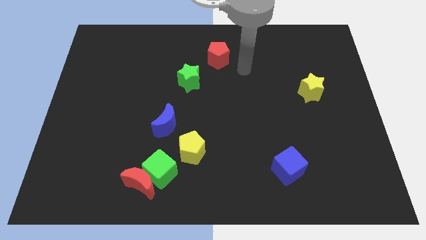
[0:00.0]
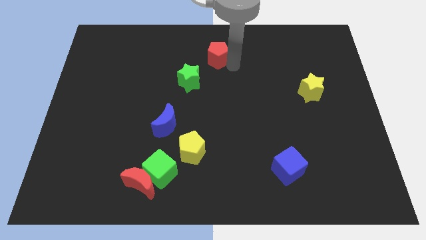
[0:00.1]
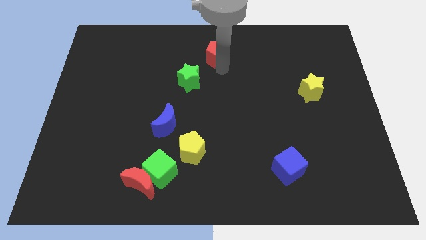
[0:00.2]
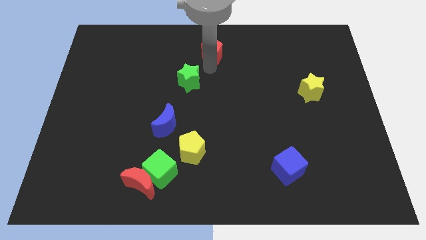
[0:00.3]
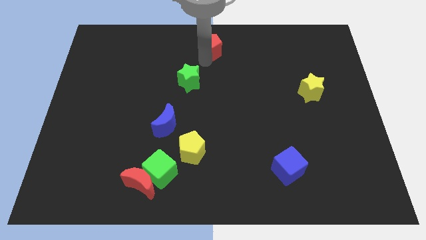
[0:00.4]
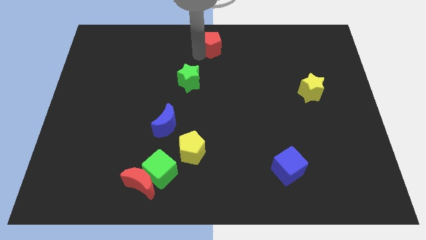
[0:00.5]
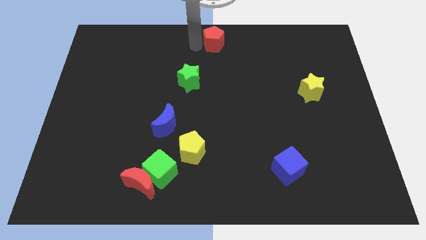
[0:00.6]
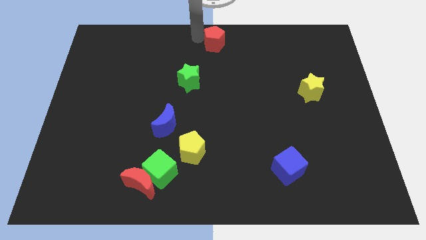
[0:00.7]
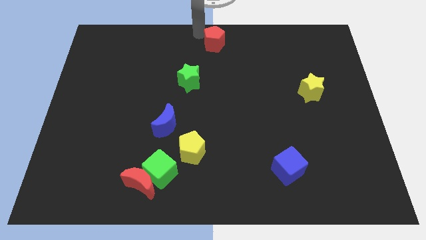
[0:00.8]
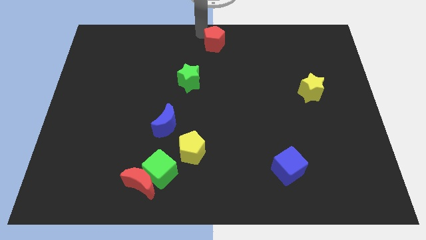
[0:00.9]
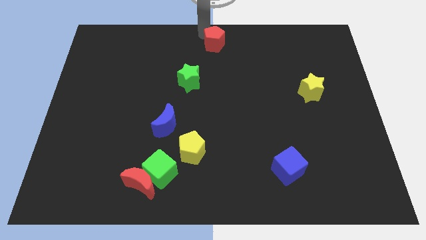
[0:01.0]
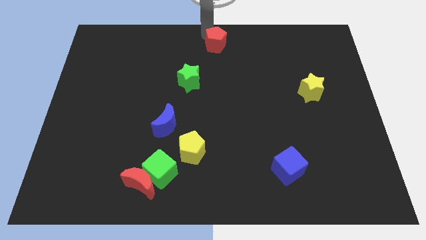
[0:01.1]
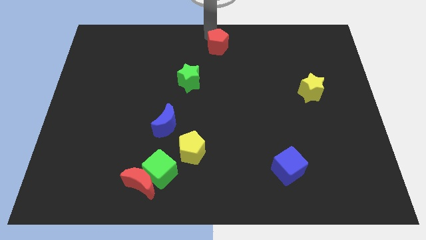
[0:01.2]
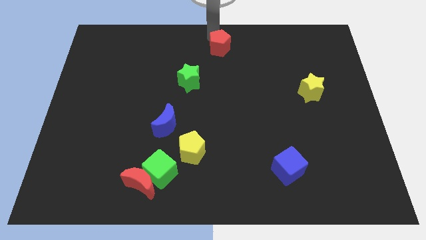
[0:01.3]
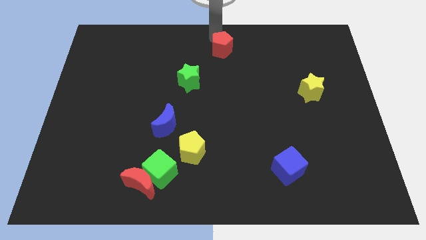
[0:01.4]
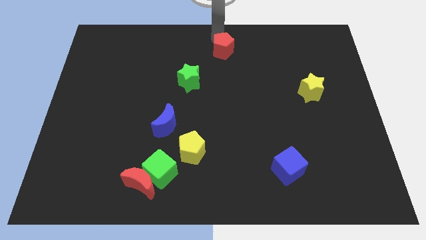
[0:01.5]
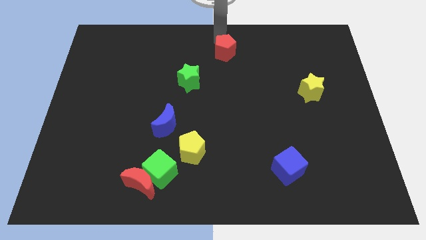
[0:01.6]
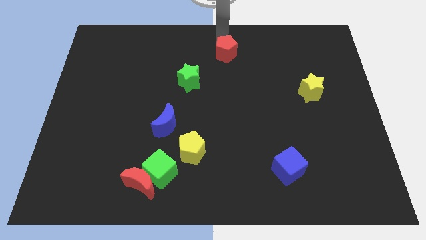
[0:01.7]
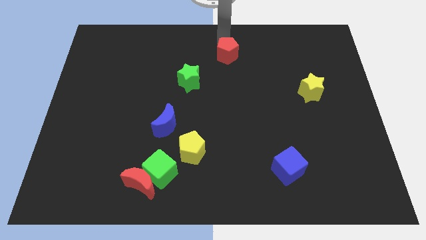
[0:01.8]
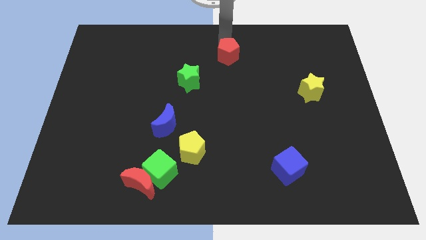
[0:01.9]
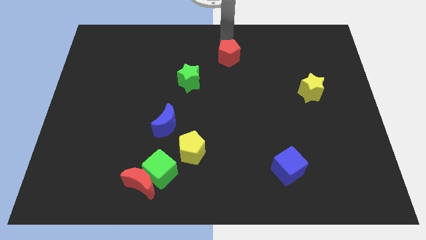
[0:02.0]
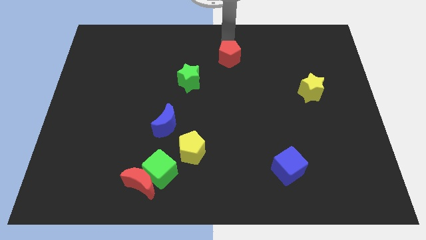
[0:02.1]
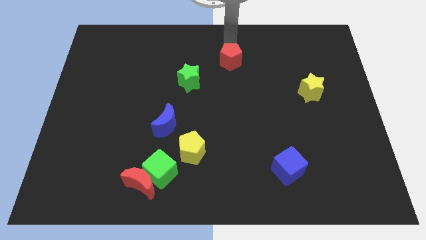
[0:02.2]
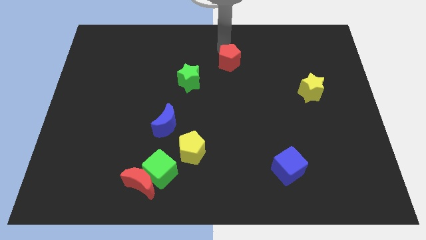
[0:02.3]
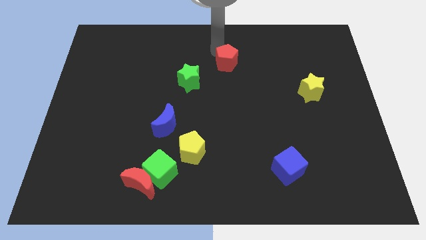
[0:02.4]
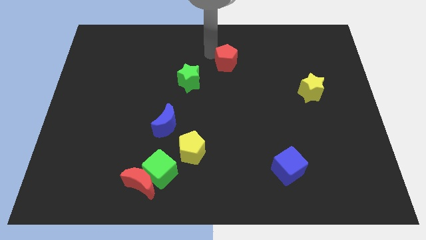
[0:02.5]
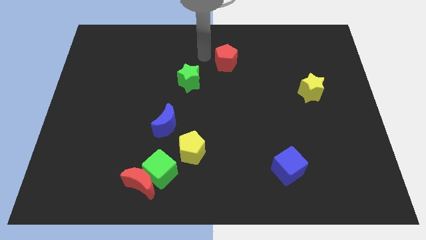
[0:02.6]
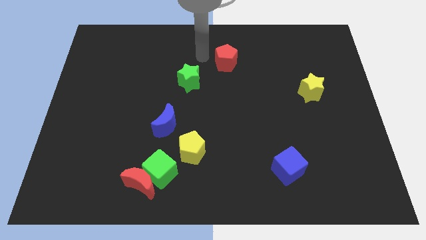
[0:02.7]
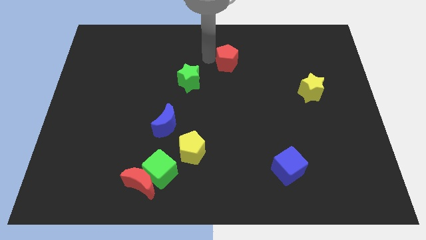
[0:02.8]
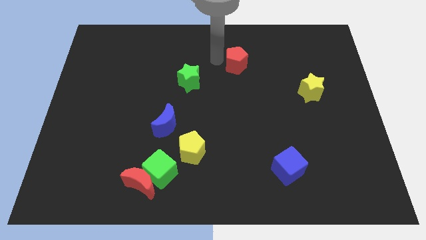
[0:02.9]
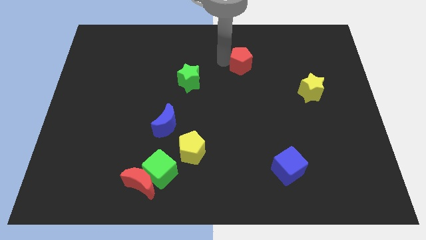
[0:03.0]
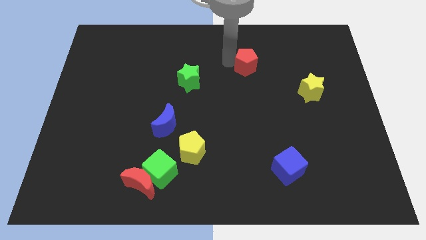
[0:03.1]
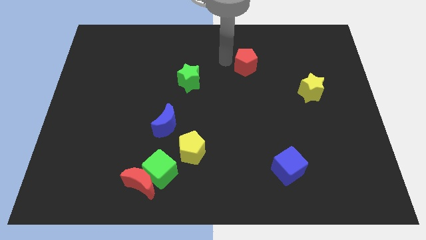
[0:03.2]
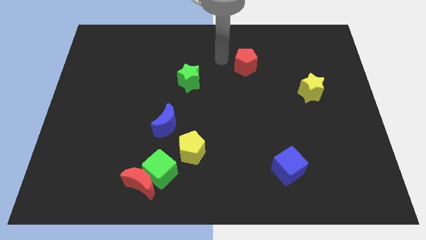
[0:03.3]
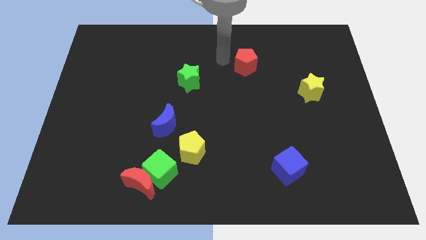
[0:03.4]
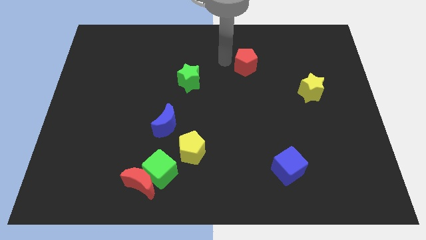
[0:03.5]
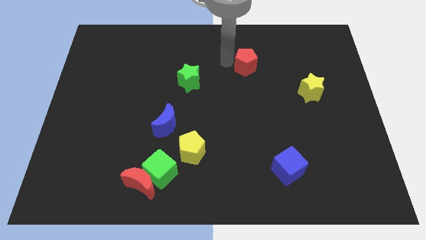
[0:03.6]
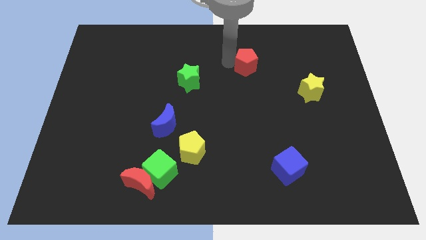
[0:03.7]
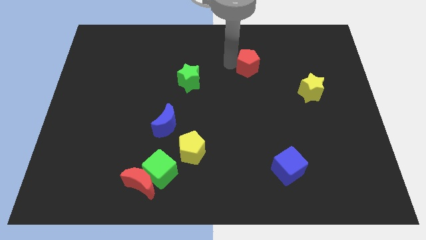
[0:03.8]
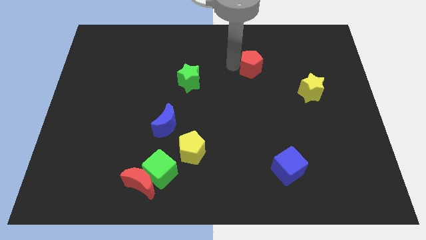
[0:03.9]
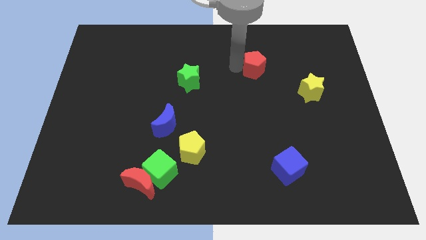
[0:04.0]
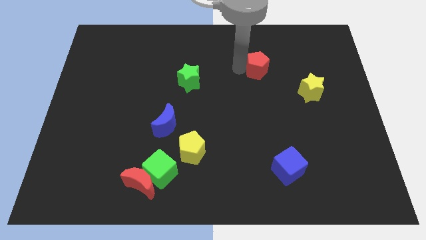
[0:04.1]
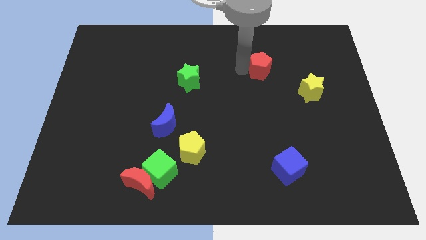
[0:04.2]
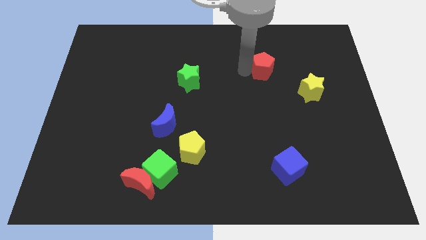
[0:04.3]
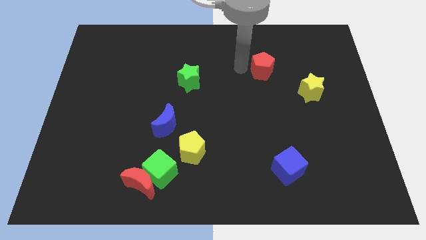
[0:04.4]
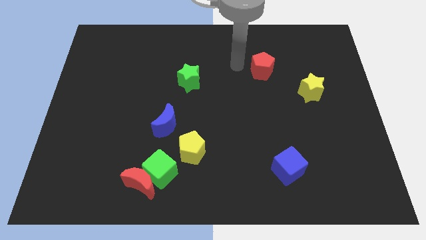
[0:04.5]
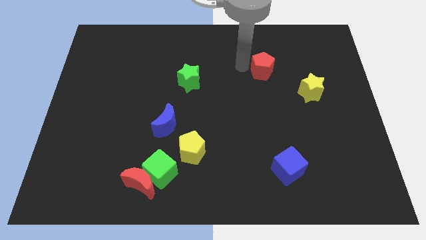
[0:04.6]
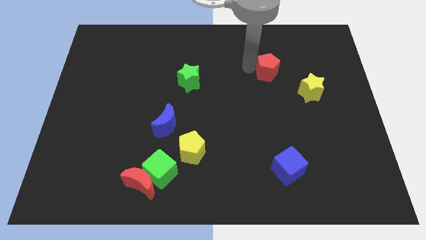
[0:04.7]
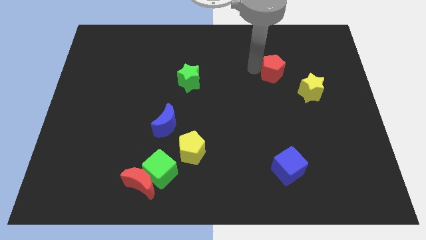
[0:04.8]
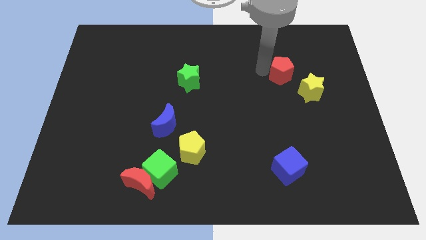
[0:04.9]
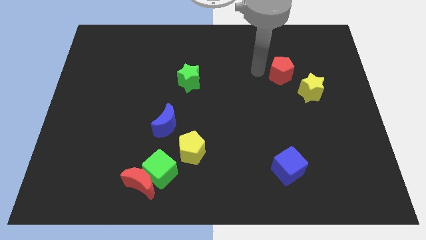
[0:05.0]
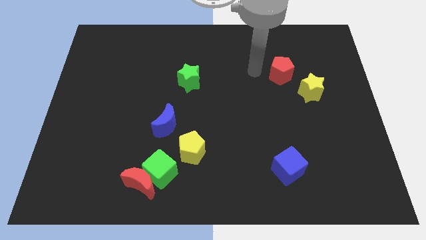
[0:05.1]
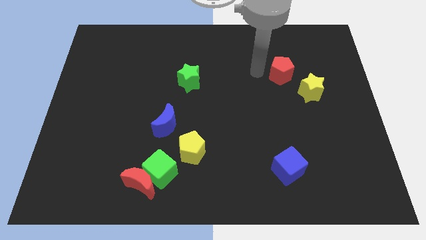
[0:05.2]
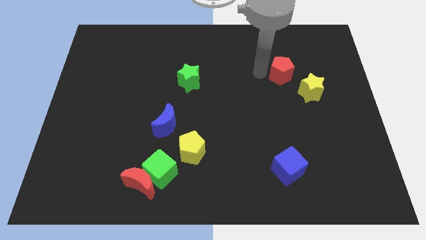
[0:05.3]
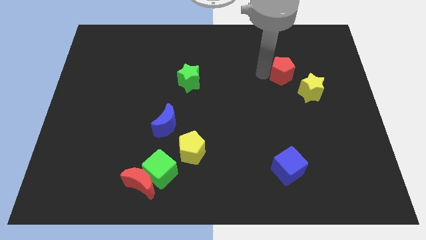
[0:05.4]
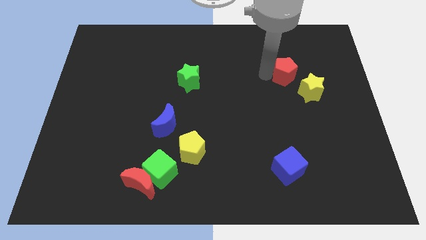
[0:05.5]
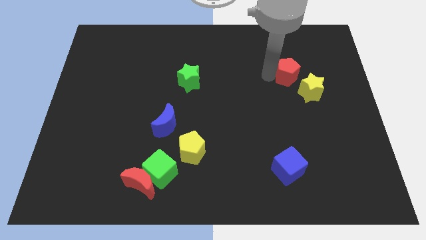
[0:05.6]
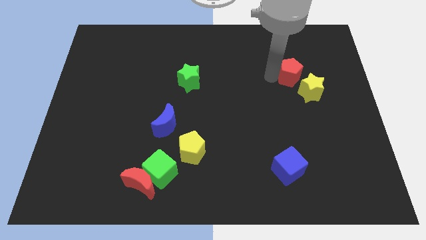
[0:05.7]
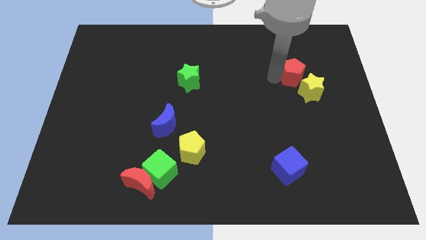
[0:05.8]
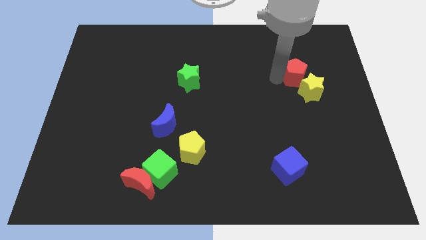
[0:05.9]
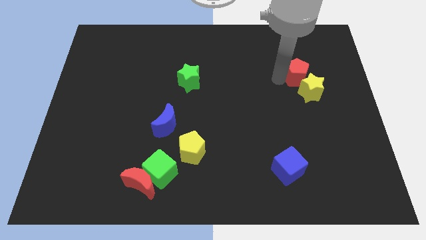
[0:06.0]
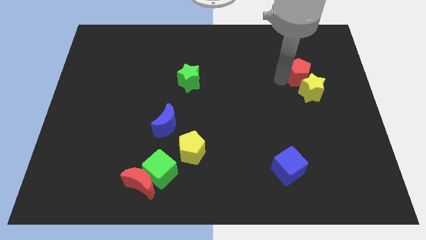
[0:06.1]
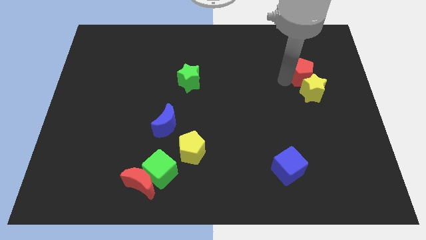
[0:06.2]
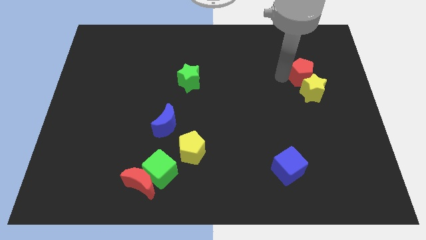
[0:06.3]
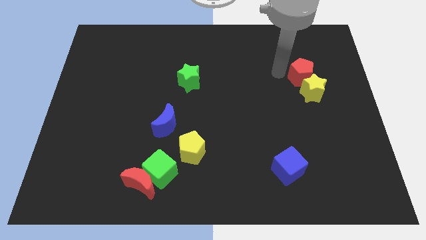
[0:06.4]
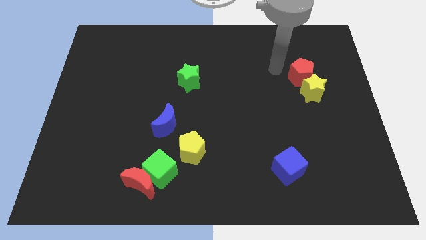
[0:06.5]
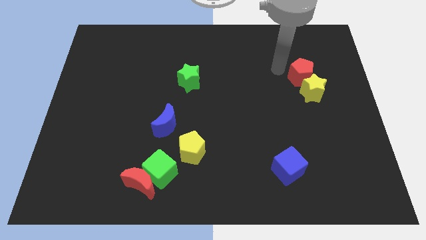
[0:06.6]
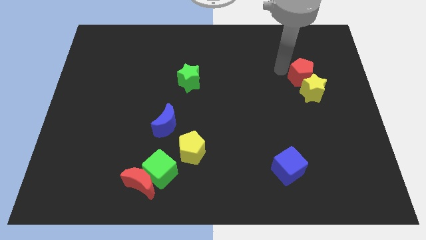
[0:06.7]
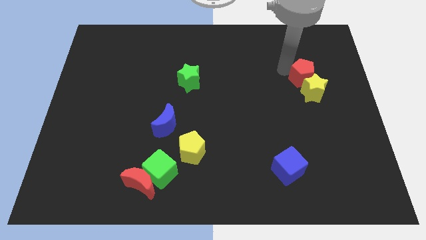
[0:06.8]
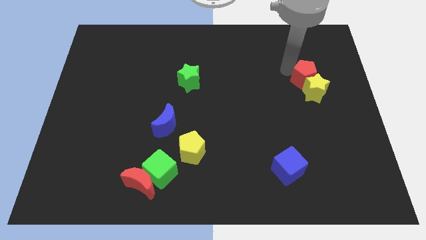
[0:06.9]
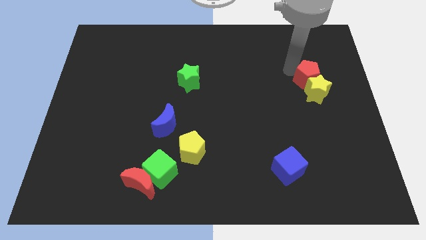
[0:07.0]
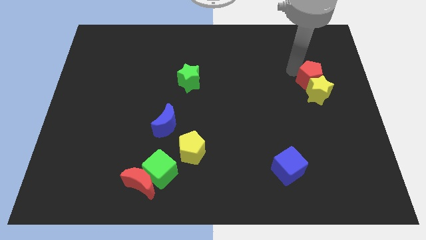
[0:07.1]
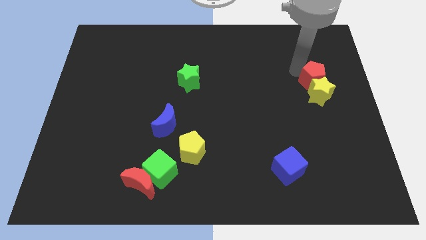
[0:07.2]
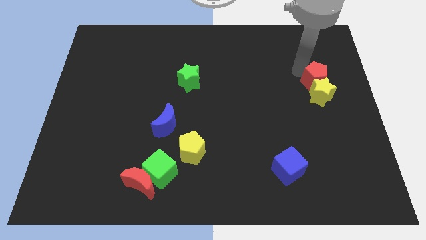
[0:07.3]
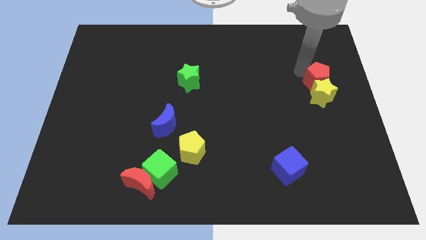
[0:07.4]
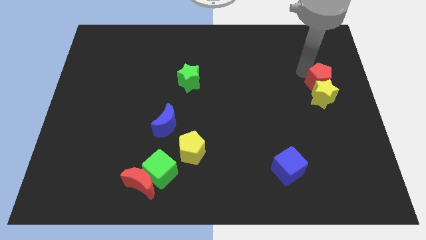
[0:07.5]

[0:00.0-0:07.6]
move the red pentagon to the center right
